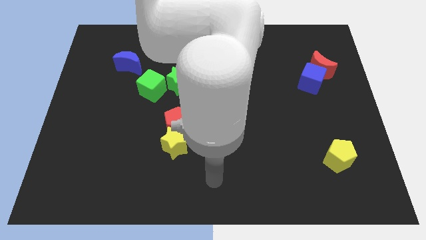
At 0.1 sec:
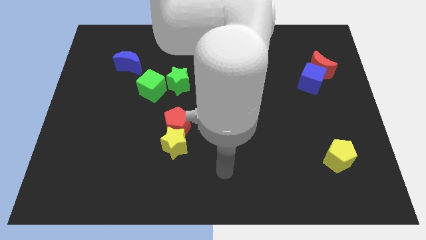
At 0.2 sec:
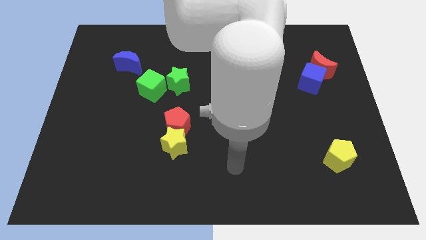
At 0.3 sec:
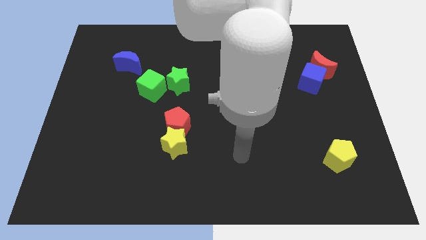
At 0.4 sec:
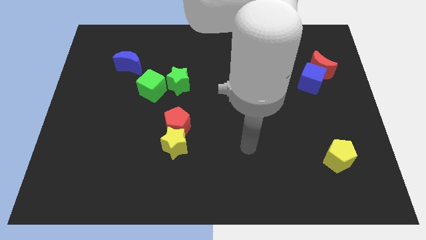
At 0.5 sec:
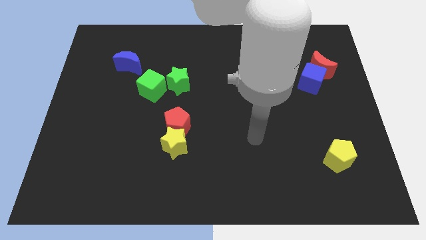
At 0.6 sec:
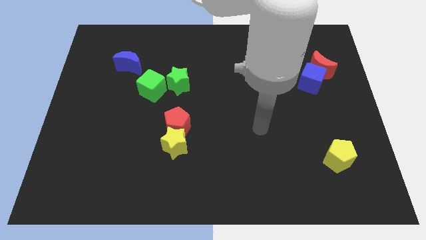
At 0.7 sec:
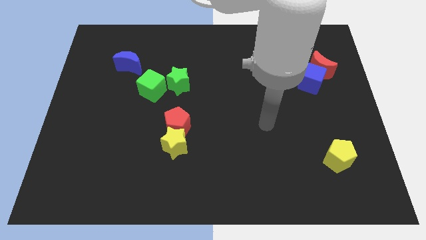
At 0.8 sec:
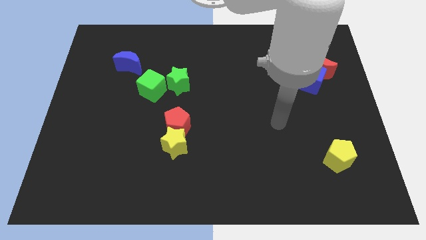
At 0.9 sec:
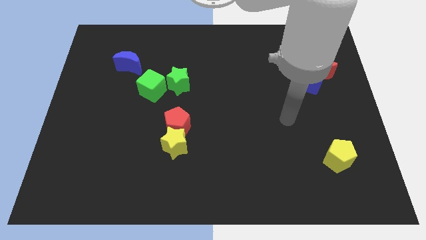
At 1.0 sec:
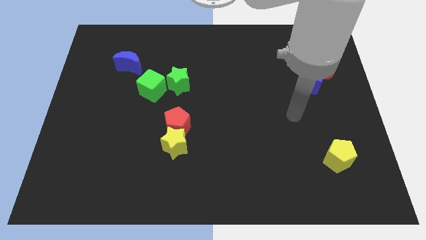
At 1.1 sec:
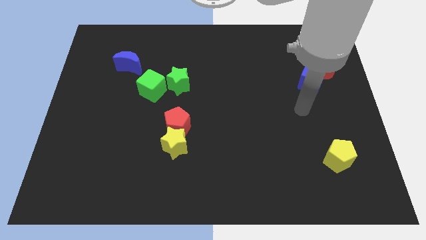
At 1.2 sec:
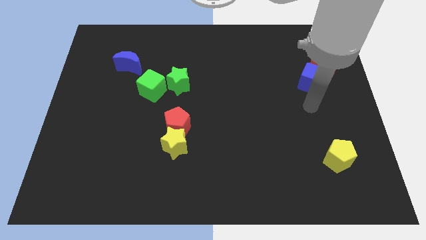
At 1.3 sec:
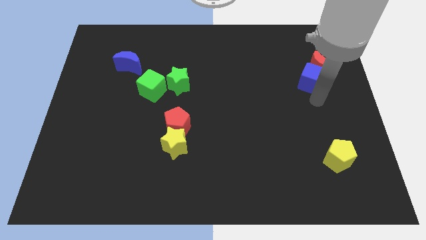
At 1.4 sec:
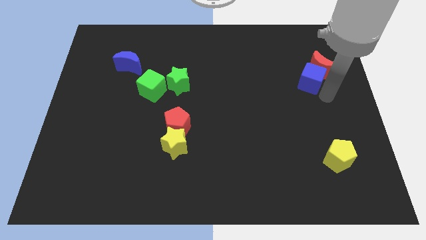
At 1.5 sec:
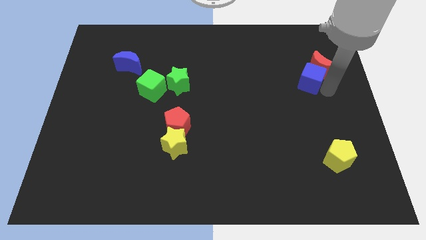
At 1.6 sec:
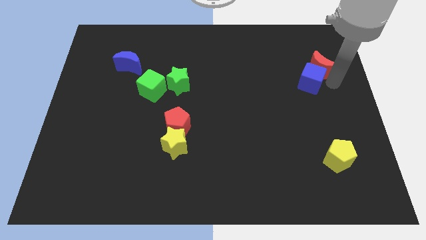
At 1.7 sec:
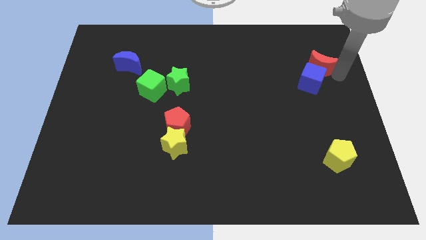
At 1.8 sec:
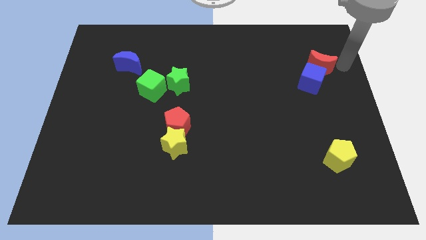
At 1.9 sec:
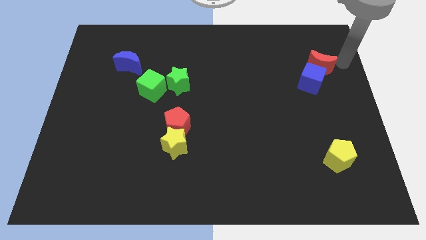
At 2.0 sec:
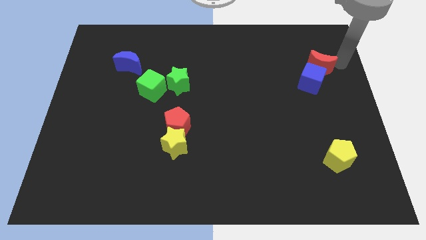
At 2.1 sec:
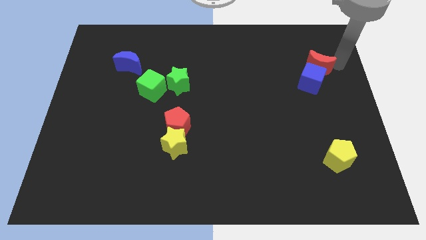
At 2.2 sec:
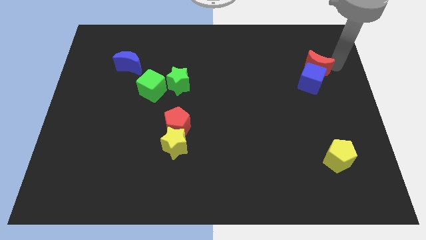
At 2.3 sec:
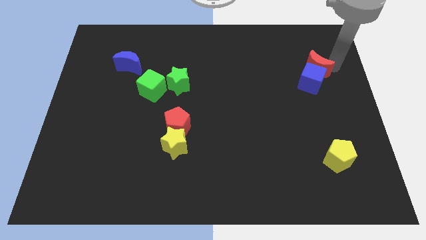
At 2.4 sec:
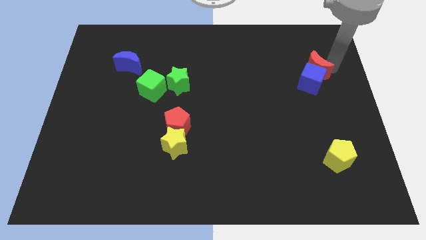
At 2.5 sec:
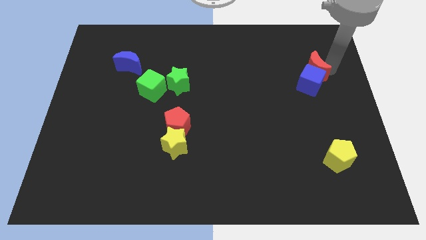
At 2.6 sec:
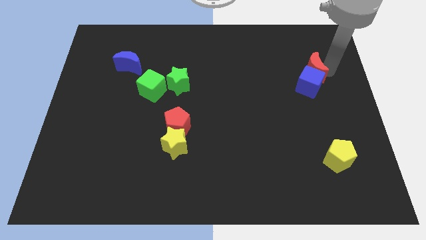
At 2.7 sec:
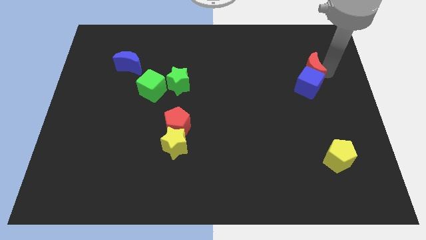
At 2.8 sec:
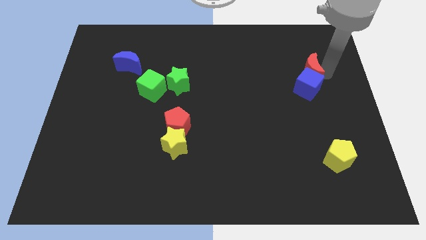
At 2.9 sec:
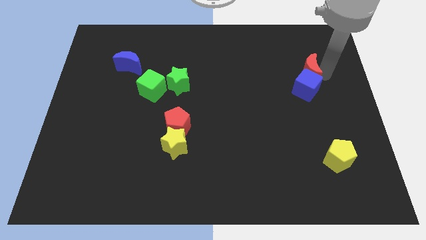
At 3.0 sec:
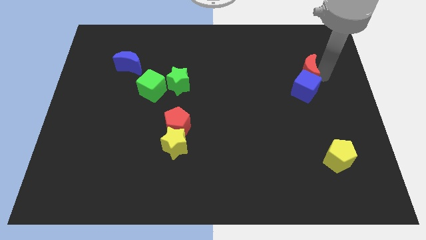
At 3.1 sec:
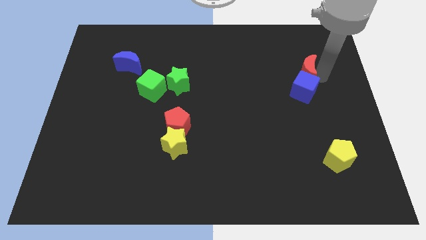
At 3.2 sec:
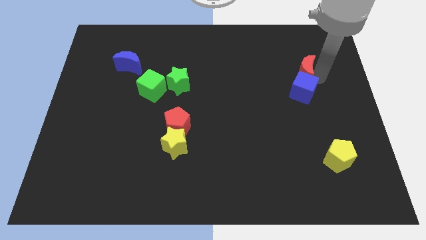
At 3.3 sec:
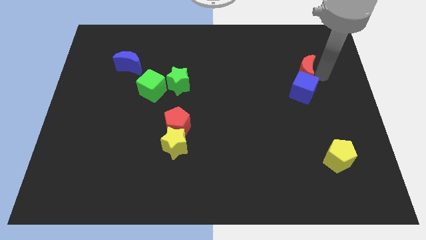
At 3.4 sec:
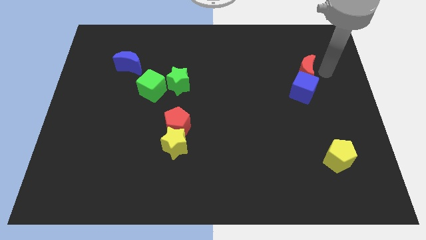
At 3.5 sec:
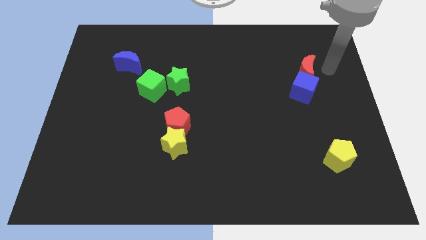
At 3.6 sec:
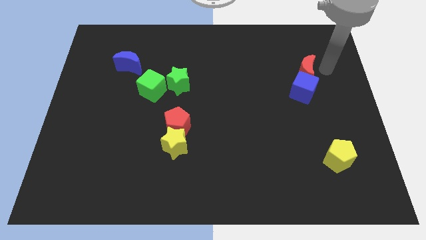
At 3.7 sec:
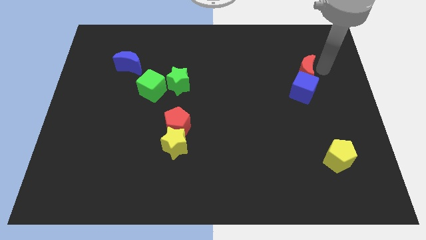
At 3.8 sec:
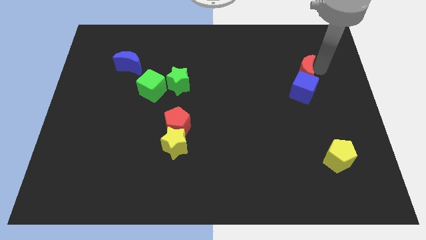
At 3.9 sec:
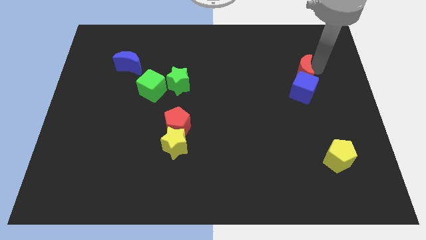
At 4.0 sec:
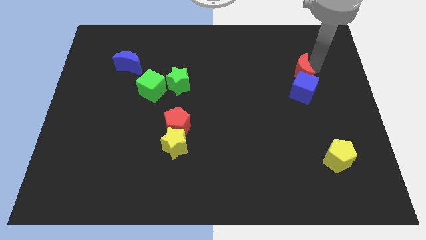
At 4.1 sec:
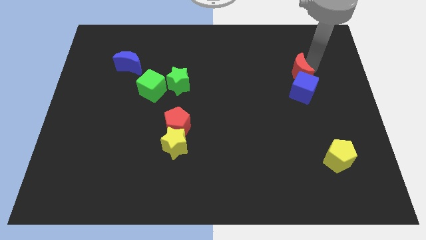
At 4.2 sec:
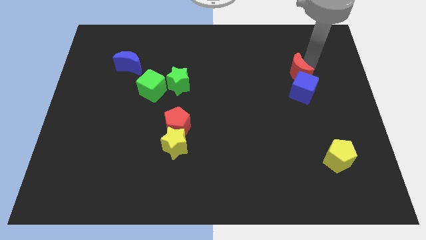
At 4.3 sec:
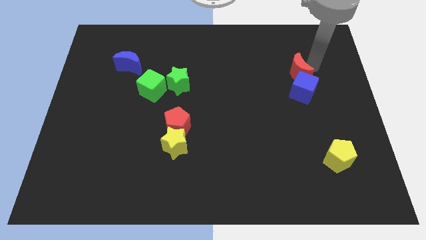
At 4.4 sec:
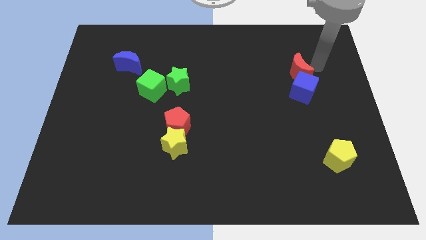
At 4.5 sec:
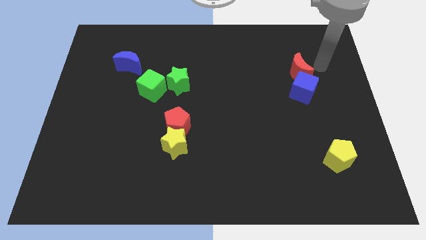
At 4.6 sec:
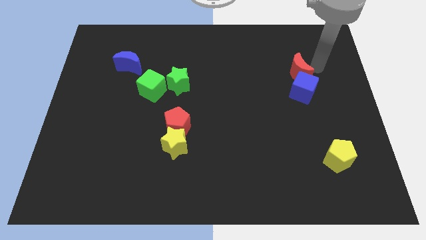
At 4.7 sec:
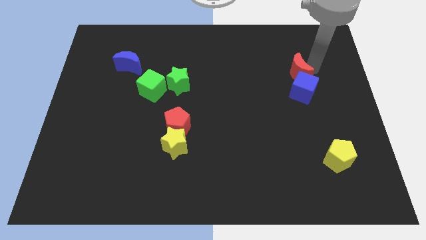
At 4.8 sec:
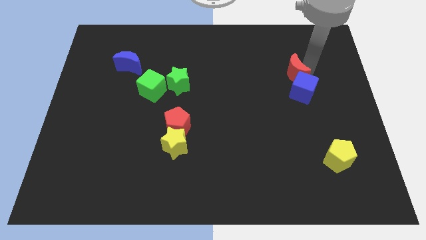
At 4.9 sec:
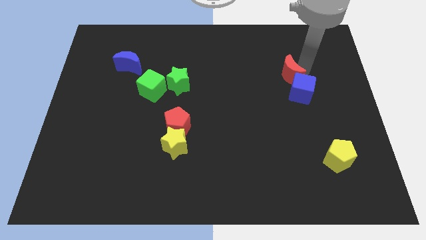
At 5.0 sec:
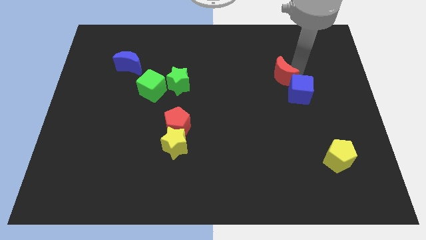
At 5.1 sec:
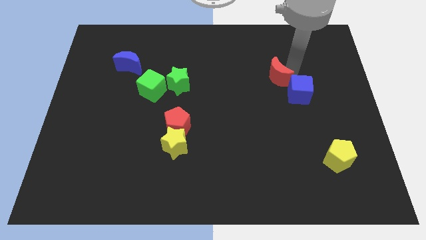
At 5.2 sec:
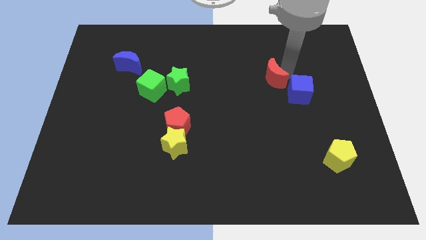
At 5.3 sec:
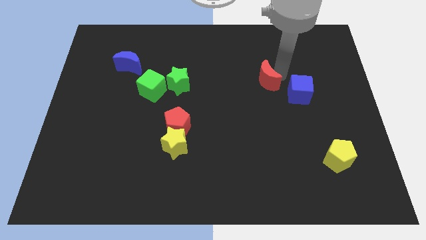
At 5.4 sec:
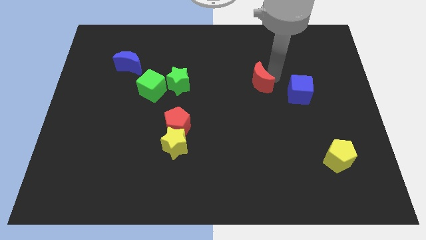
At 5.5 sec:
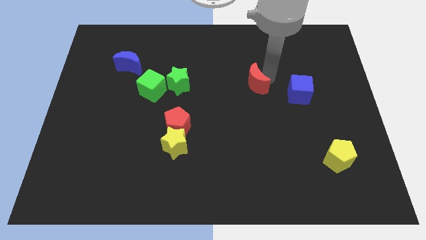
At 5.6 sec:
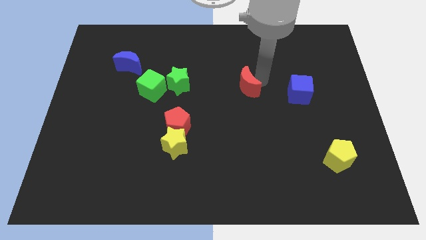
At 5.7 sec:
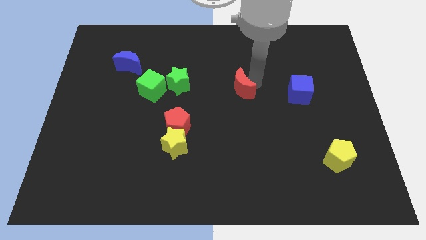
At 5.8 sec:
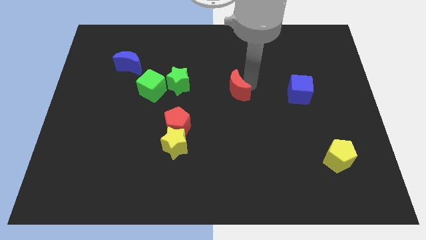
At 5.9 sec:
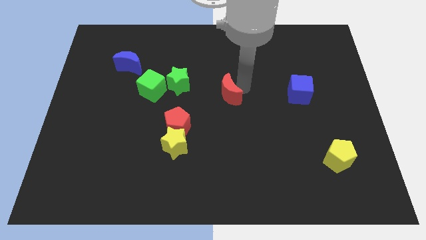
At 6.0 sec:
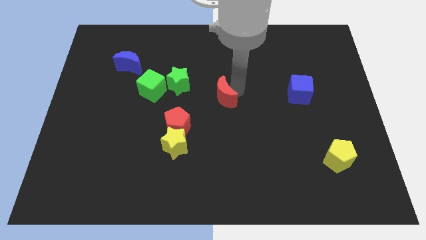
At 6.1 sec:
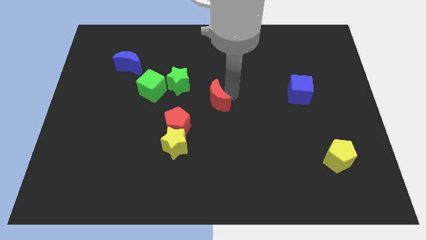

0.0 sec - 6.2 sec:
push the red moon to the bottom right side of the green star

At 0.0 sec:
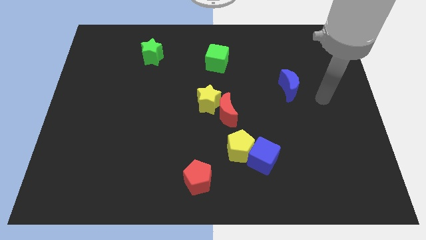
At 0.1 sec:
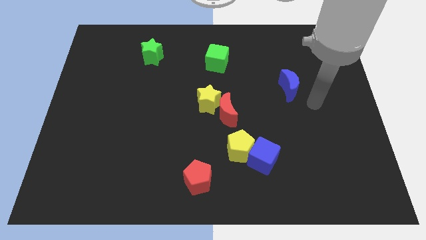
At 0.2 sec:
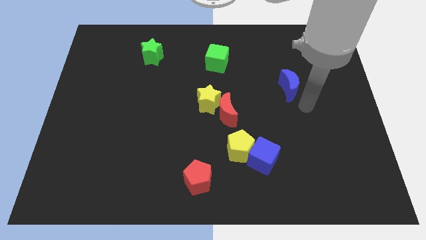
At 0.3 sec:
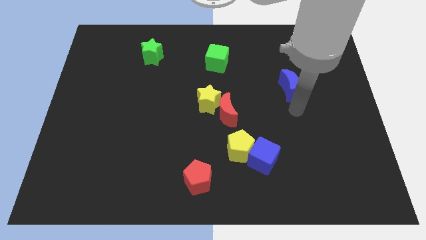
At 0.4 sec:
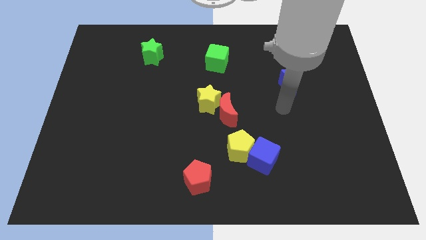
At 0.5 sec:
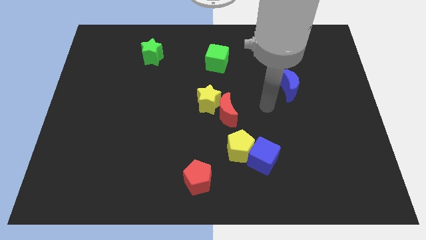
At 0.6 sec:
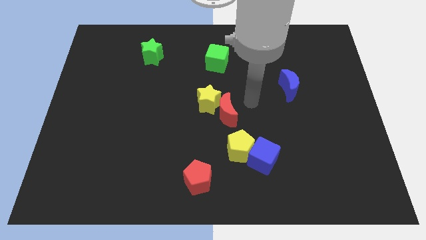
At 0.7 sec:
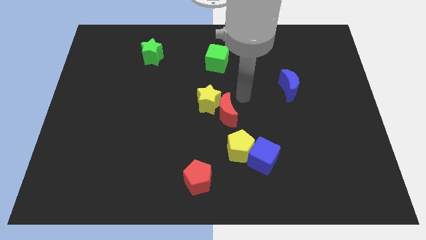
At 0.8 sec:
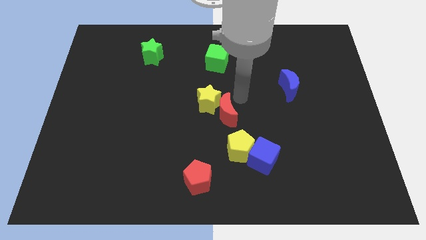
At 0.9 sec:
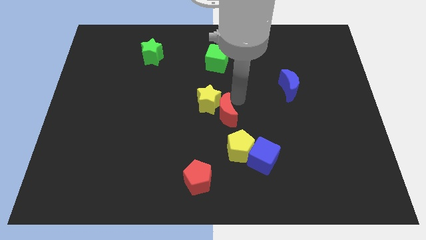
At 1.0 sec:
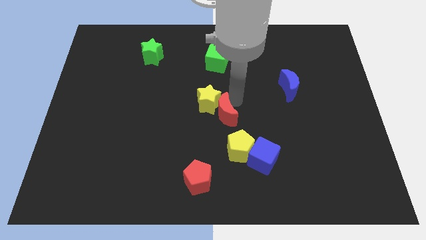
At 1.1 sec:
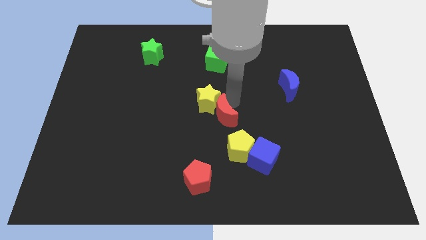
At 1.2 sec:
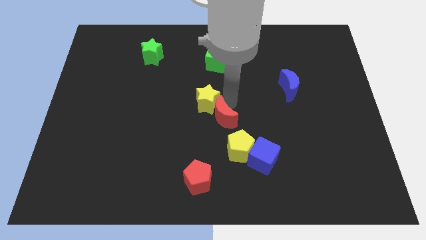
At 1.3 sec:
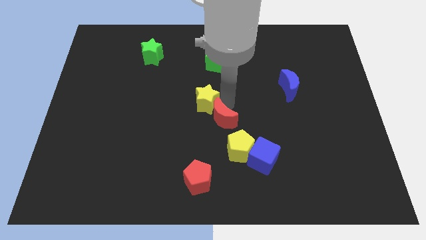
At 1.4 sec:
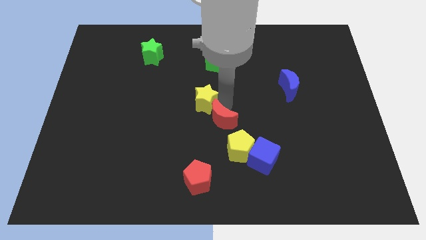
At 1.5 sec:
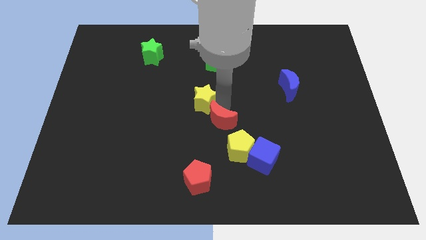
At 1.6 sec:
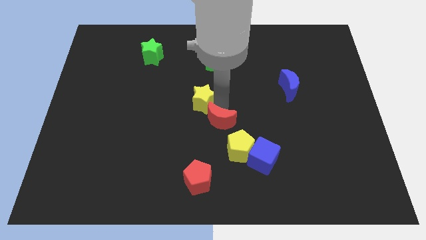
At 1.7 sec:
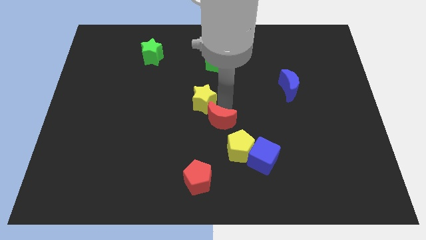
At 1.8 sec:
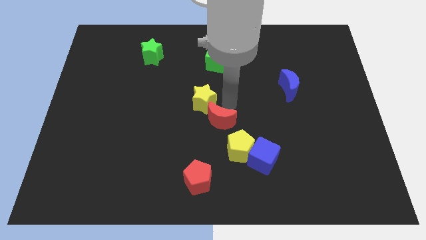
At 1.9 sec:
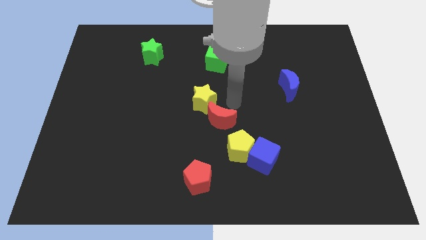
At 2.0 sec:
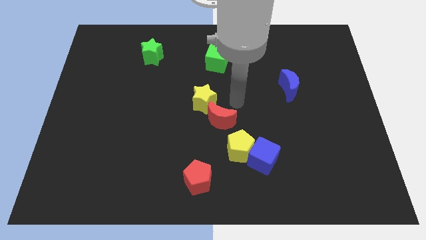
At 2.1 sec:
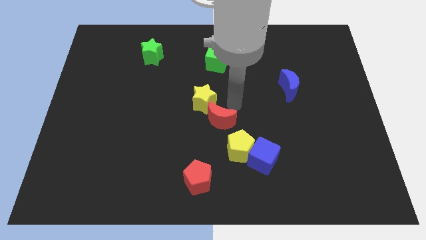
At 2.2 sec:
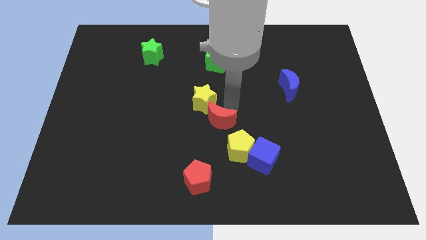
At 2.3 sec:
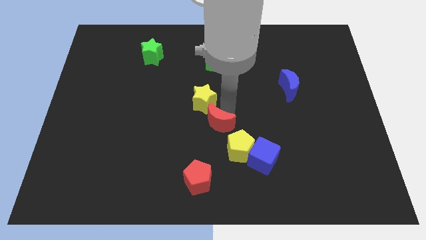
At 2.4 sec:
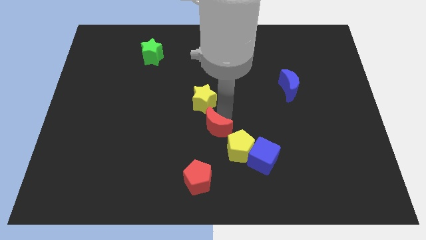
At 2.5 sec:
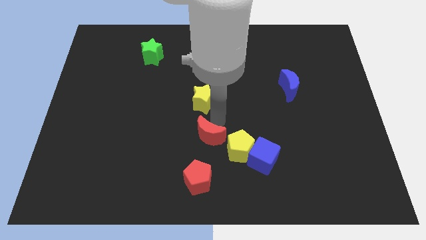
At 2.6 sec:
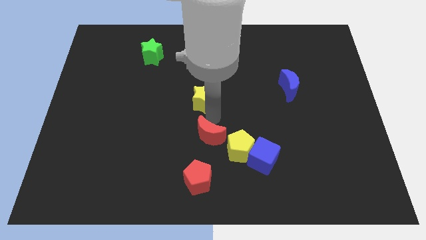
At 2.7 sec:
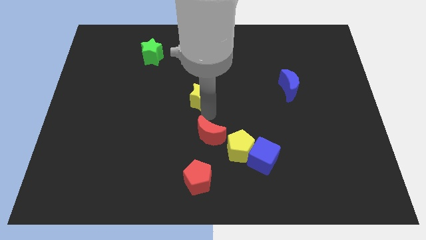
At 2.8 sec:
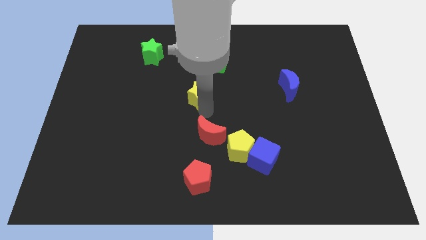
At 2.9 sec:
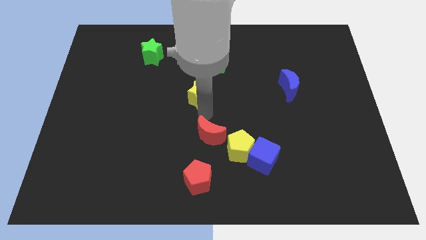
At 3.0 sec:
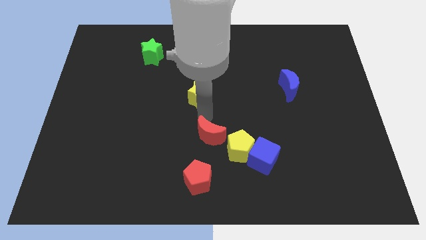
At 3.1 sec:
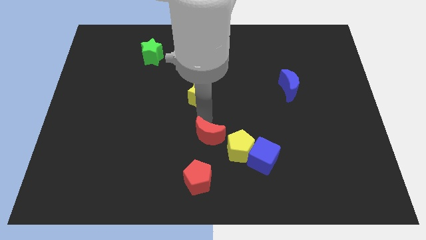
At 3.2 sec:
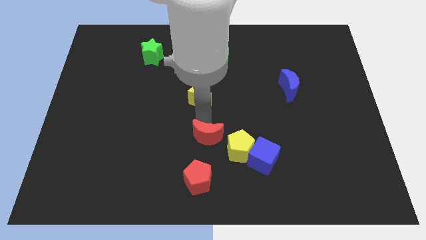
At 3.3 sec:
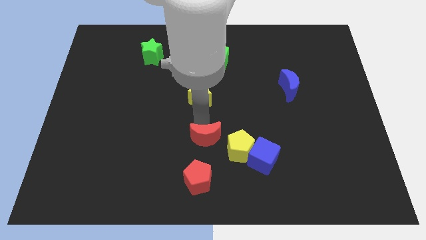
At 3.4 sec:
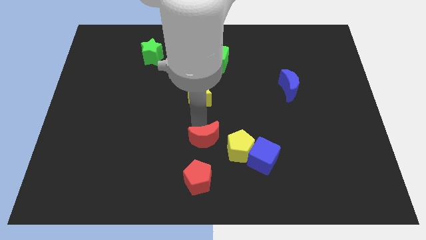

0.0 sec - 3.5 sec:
move the red moon just left of the blue cube
